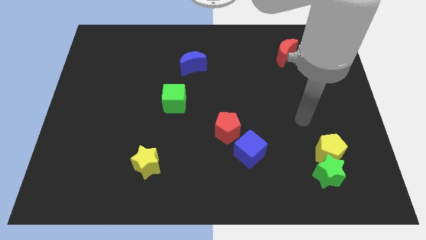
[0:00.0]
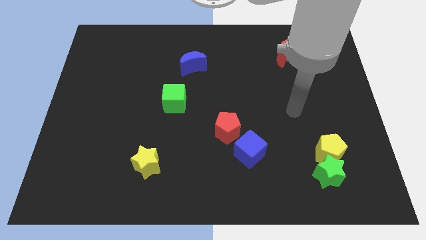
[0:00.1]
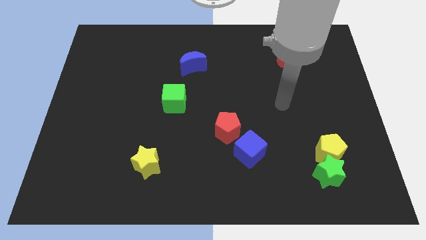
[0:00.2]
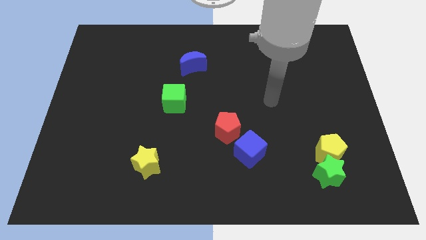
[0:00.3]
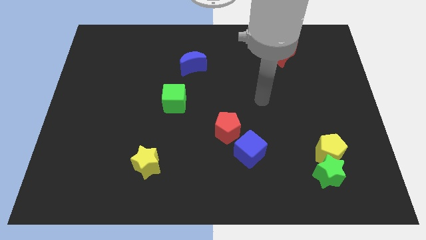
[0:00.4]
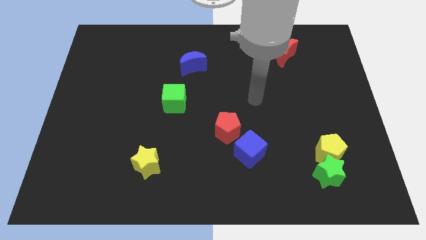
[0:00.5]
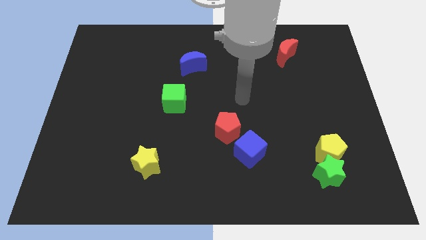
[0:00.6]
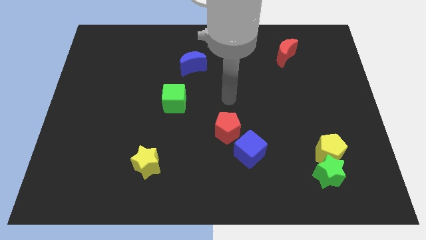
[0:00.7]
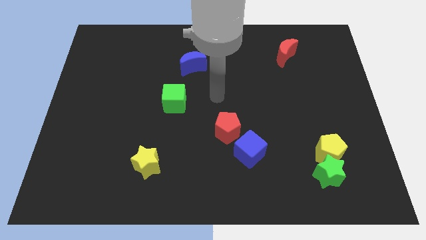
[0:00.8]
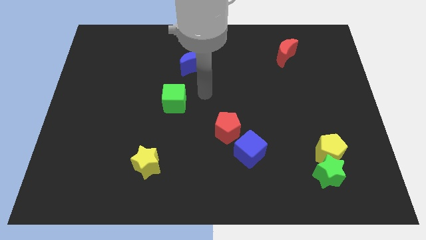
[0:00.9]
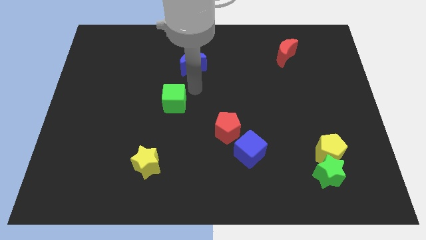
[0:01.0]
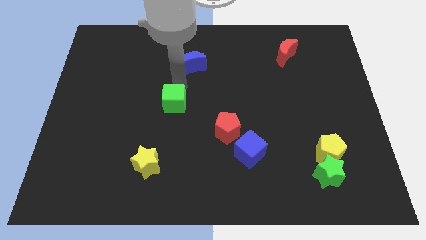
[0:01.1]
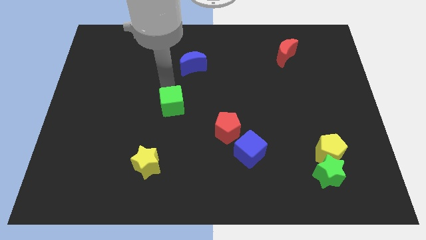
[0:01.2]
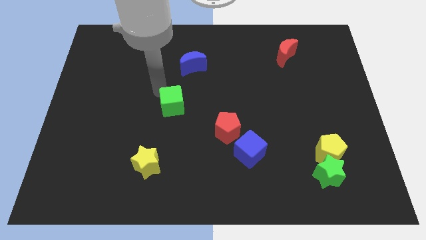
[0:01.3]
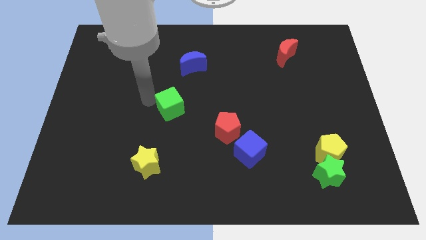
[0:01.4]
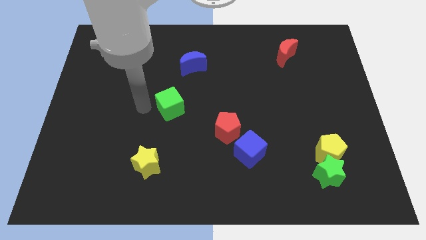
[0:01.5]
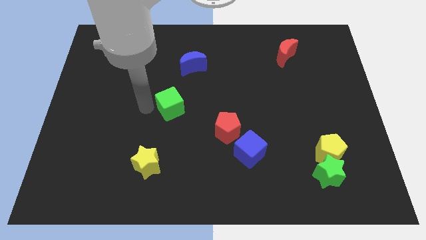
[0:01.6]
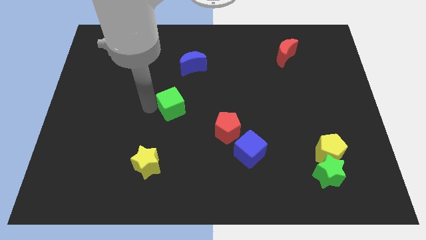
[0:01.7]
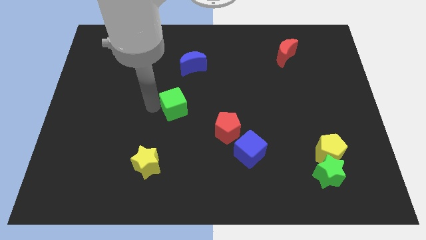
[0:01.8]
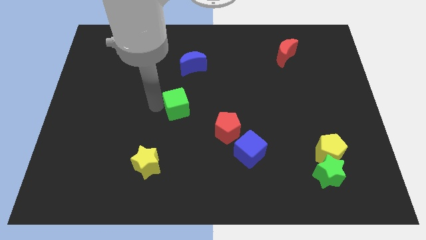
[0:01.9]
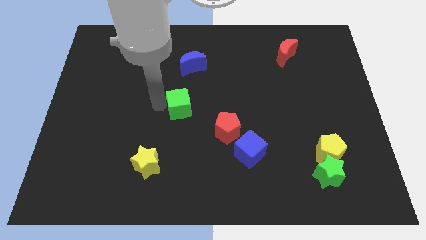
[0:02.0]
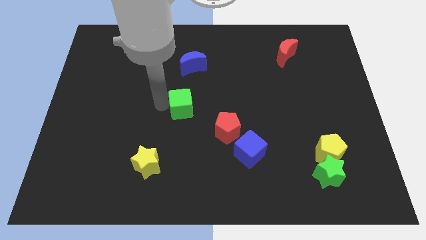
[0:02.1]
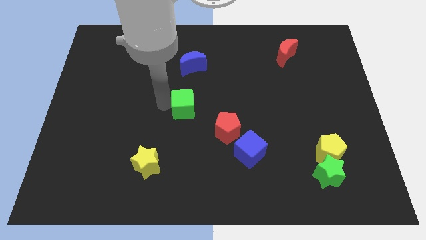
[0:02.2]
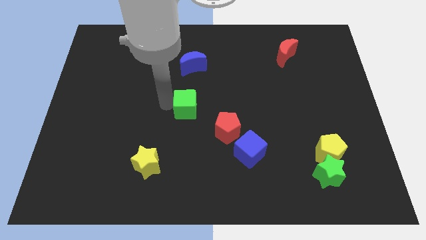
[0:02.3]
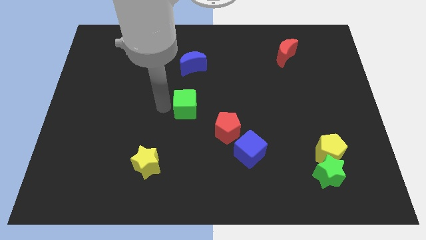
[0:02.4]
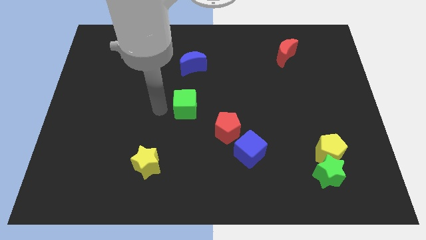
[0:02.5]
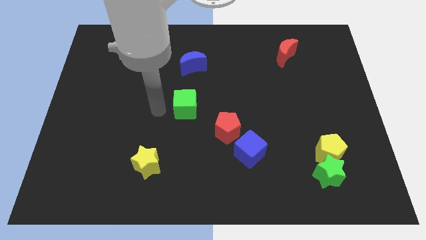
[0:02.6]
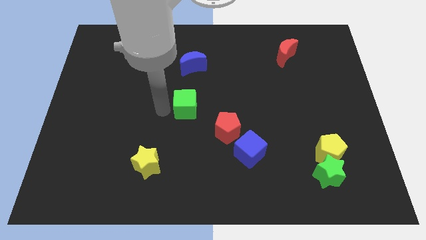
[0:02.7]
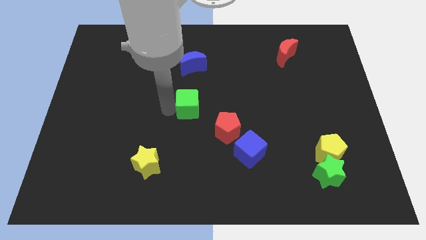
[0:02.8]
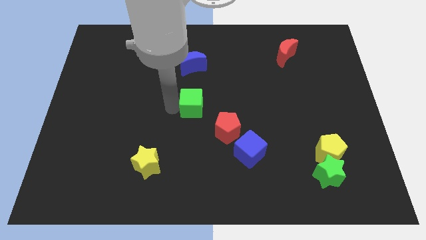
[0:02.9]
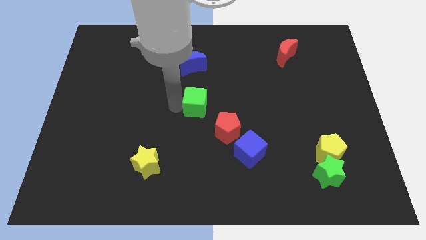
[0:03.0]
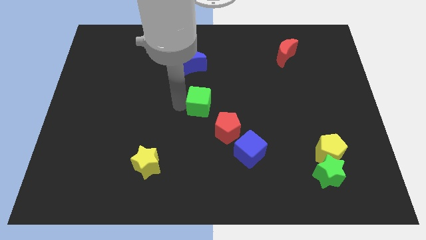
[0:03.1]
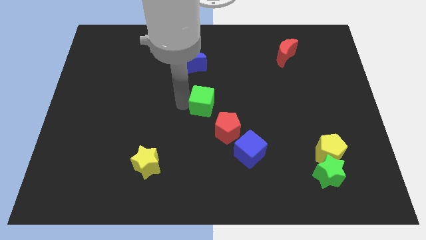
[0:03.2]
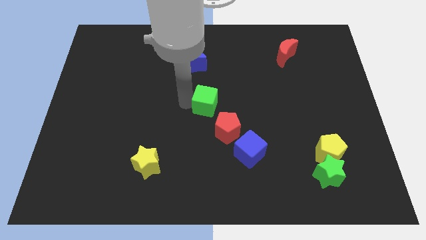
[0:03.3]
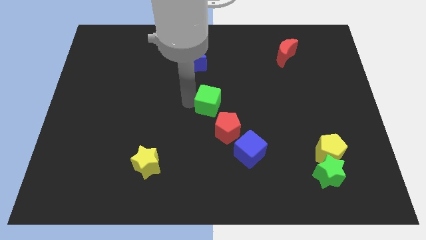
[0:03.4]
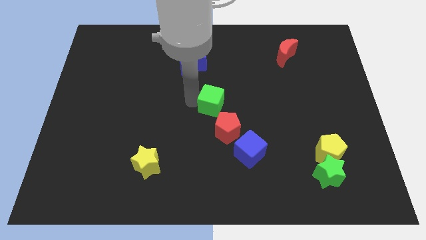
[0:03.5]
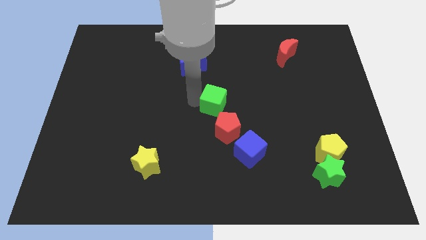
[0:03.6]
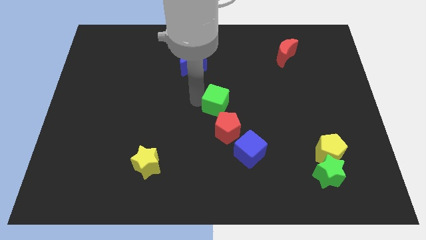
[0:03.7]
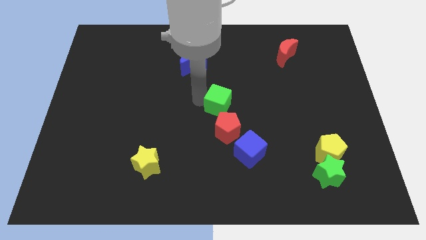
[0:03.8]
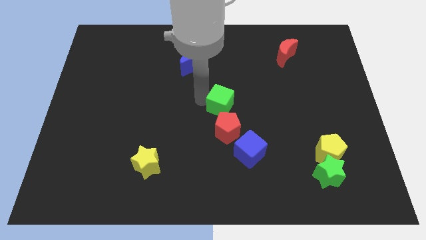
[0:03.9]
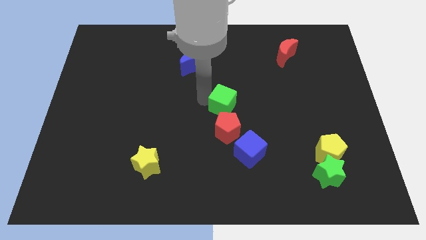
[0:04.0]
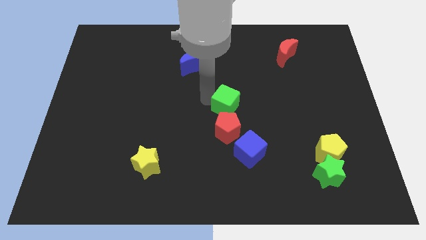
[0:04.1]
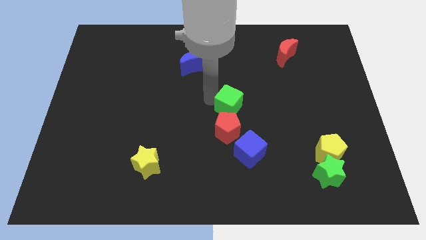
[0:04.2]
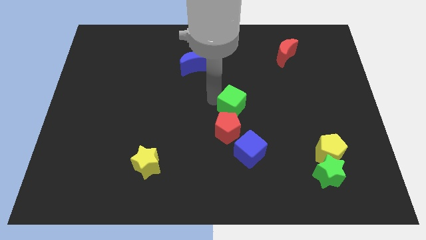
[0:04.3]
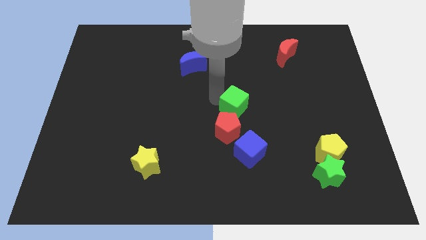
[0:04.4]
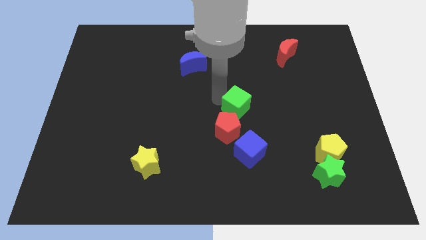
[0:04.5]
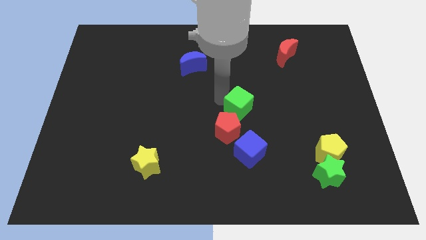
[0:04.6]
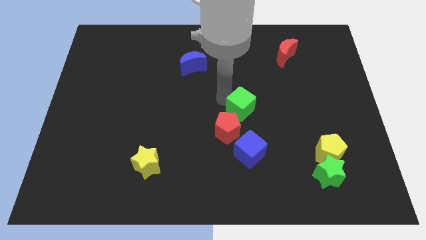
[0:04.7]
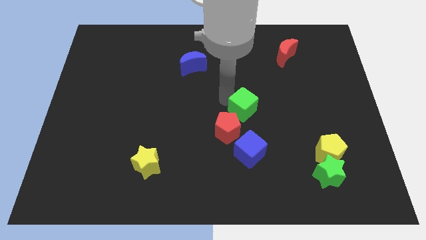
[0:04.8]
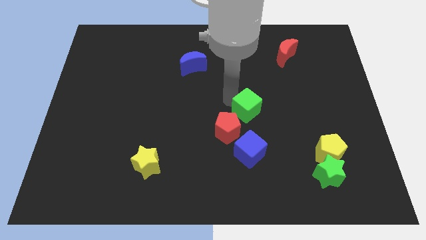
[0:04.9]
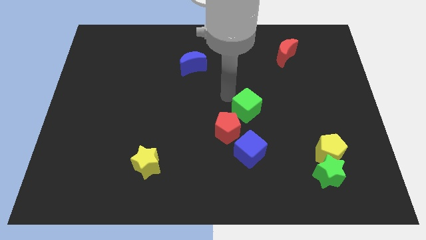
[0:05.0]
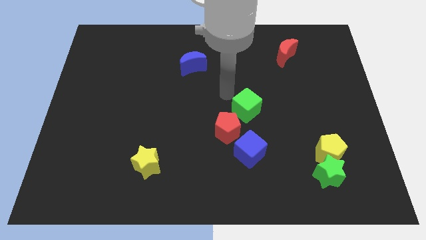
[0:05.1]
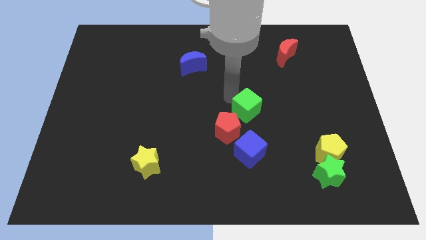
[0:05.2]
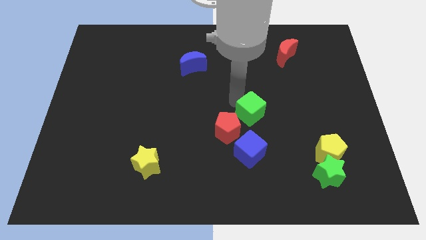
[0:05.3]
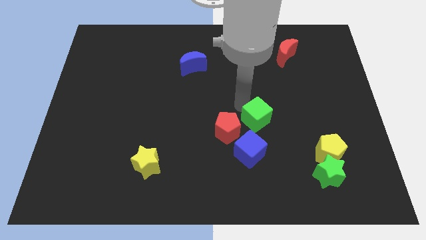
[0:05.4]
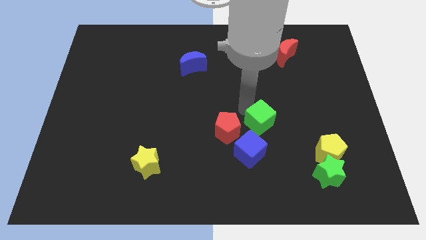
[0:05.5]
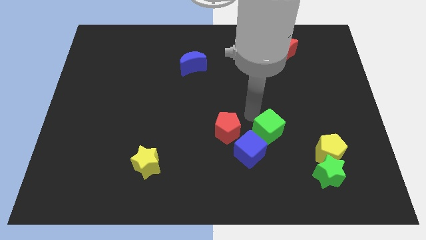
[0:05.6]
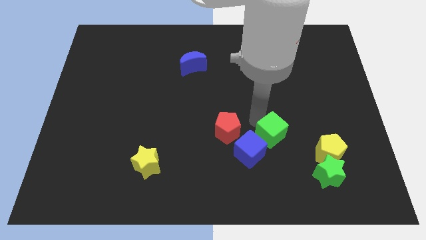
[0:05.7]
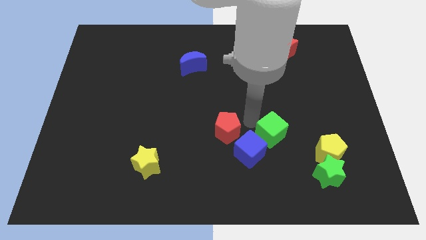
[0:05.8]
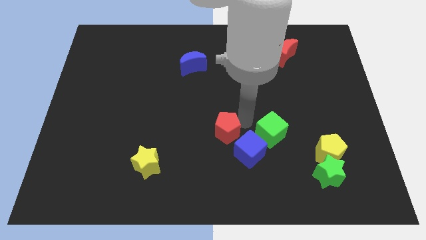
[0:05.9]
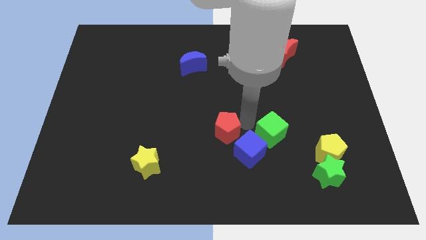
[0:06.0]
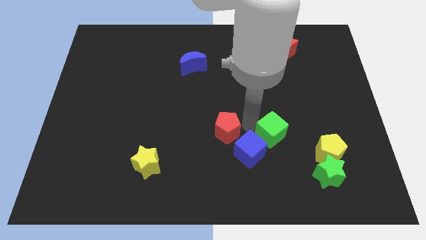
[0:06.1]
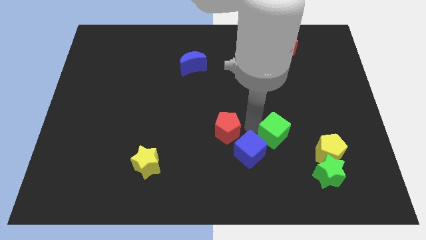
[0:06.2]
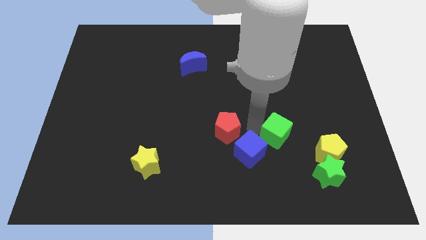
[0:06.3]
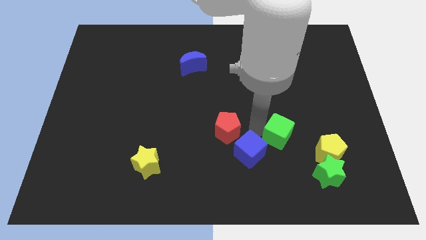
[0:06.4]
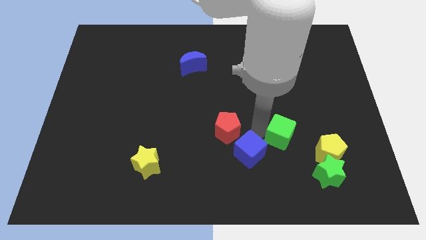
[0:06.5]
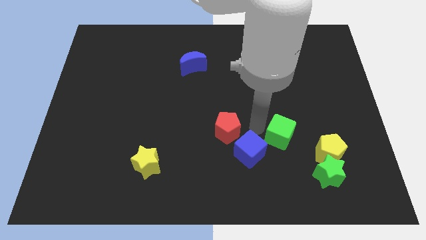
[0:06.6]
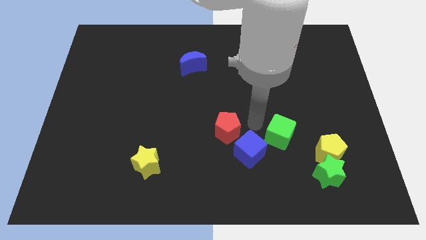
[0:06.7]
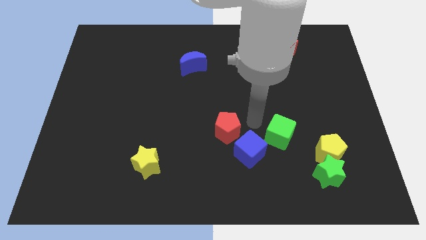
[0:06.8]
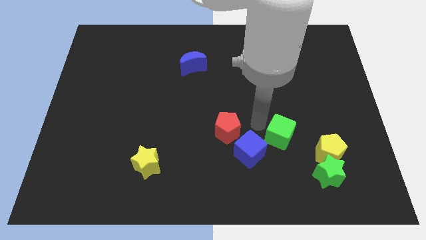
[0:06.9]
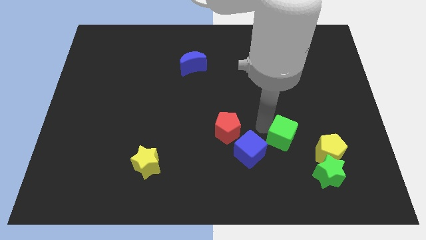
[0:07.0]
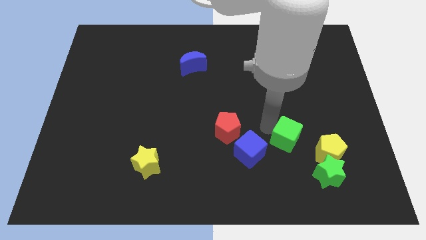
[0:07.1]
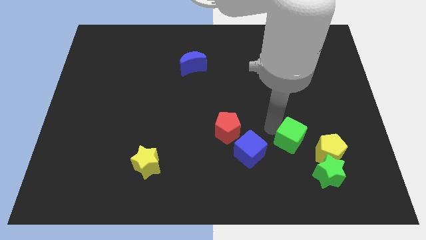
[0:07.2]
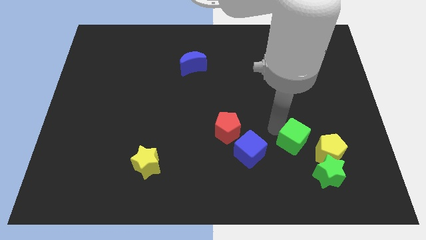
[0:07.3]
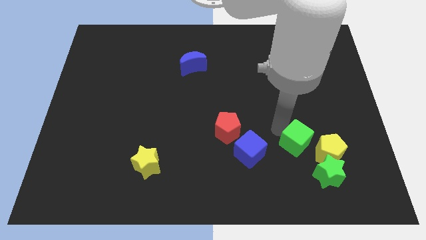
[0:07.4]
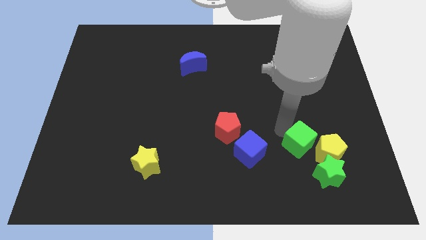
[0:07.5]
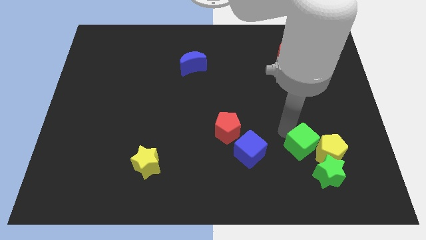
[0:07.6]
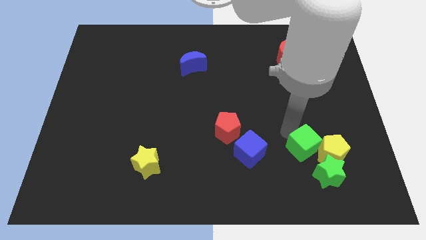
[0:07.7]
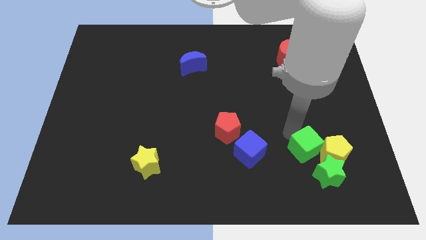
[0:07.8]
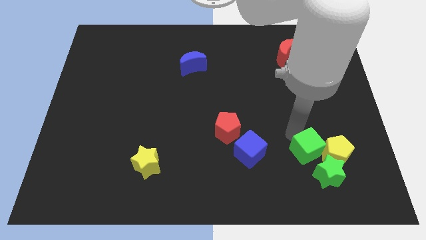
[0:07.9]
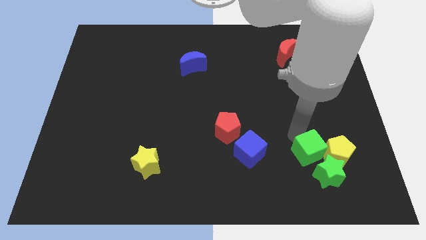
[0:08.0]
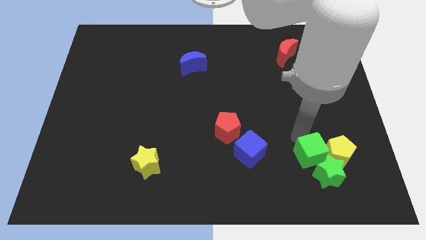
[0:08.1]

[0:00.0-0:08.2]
slide the green cube close to the green star
